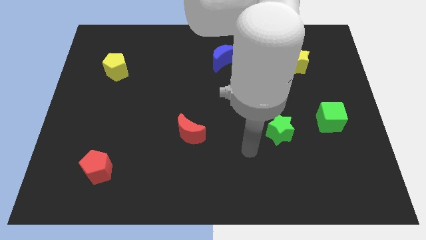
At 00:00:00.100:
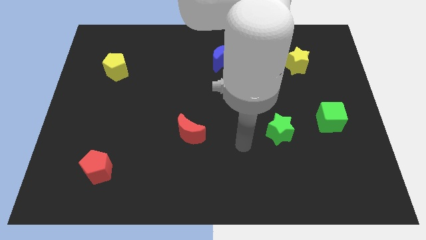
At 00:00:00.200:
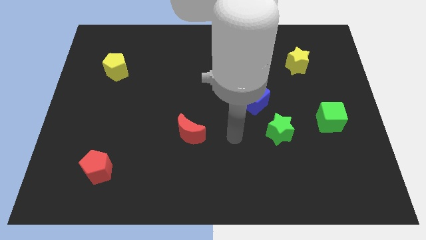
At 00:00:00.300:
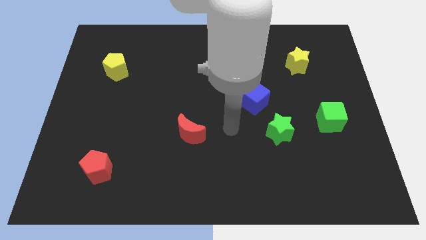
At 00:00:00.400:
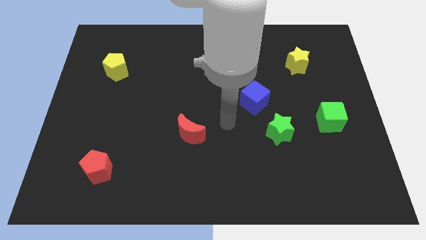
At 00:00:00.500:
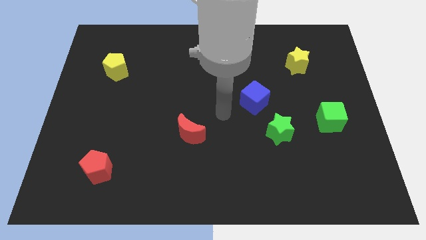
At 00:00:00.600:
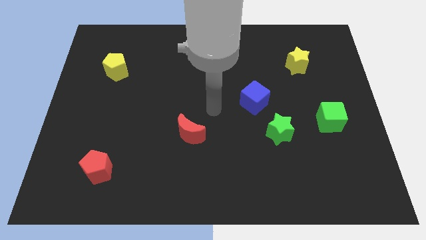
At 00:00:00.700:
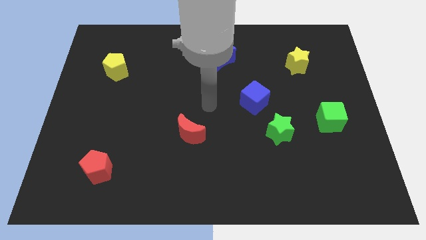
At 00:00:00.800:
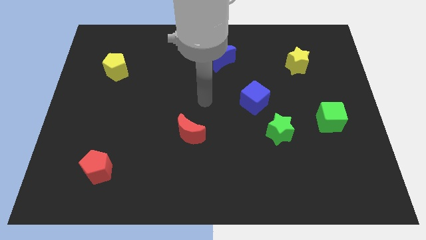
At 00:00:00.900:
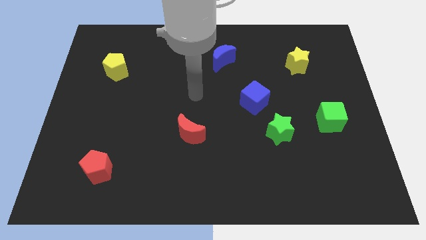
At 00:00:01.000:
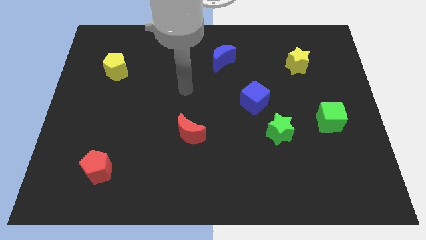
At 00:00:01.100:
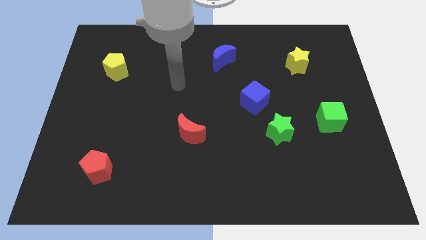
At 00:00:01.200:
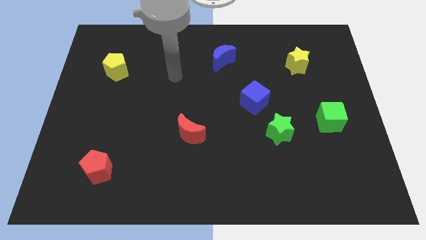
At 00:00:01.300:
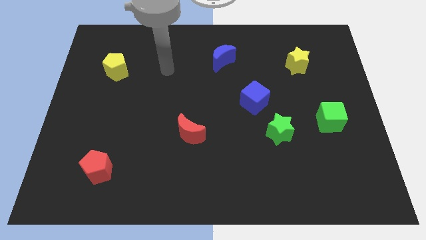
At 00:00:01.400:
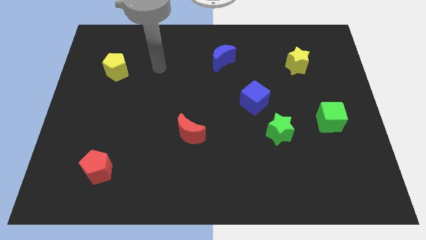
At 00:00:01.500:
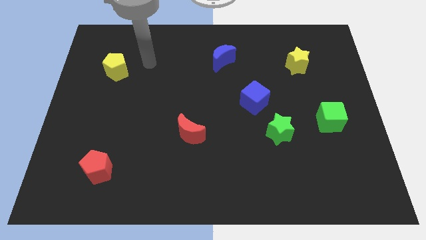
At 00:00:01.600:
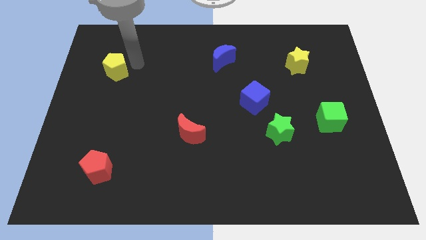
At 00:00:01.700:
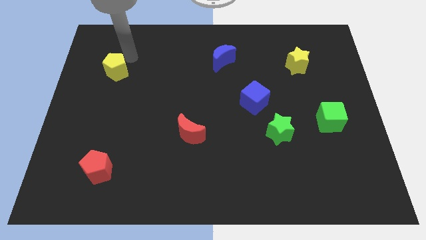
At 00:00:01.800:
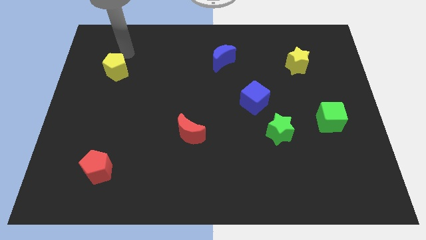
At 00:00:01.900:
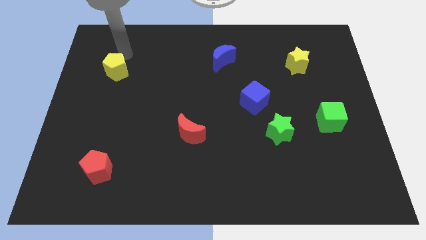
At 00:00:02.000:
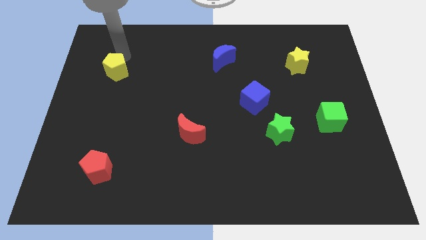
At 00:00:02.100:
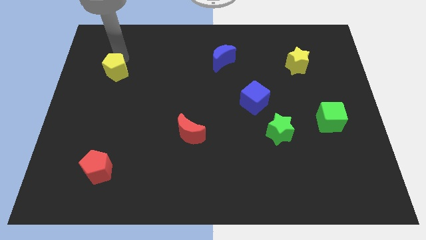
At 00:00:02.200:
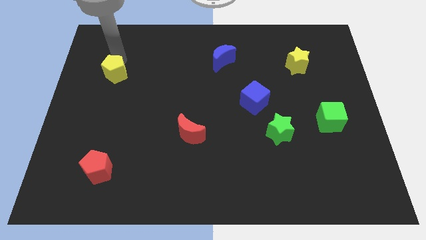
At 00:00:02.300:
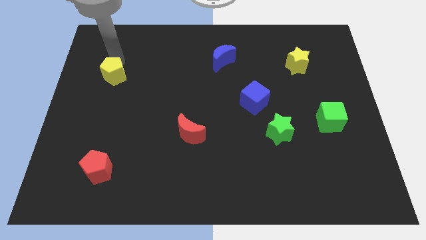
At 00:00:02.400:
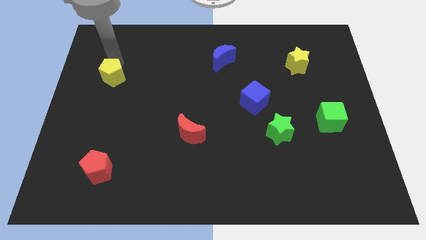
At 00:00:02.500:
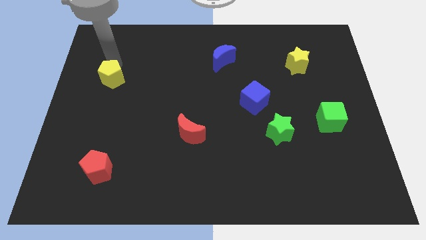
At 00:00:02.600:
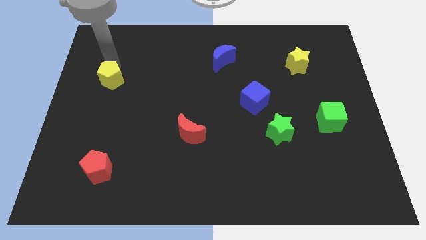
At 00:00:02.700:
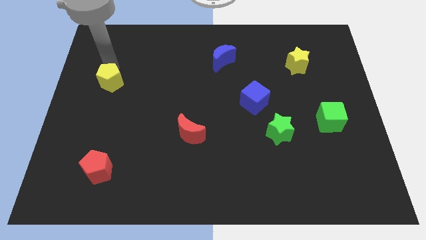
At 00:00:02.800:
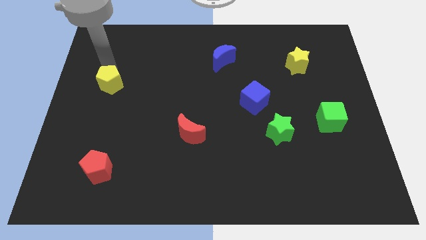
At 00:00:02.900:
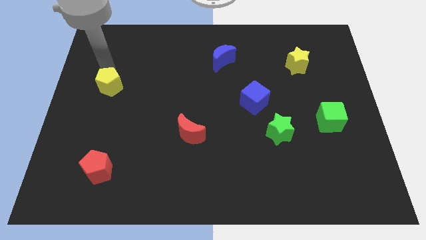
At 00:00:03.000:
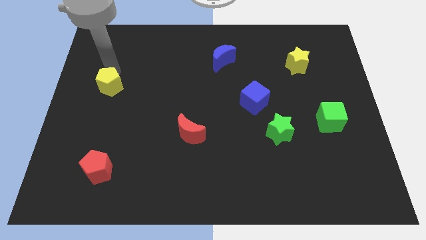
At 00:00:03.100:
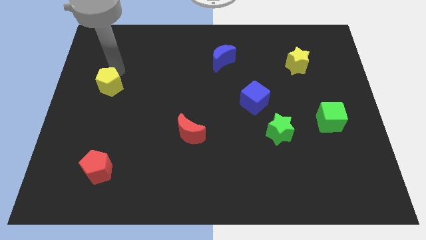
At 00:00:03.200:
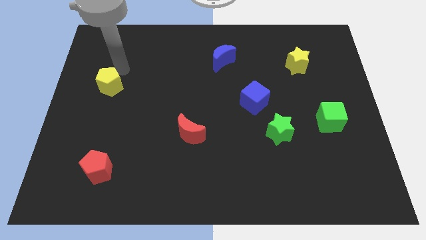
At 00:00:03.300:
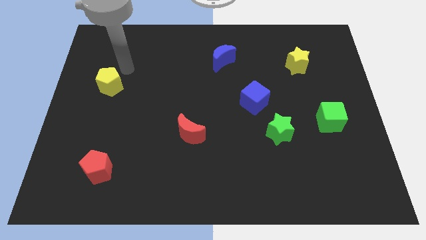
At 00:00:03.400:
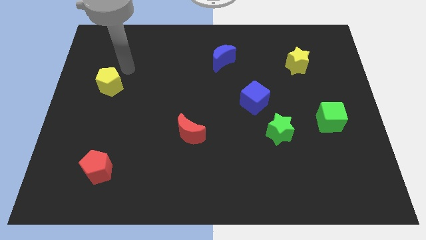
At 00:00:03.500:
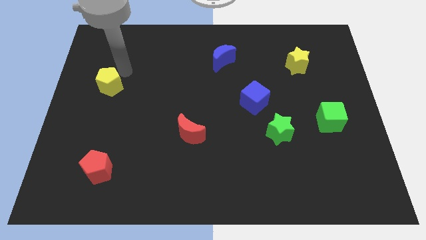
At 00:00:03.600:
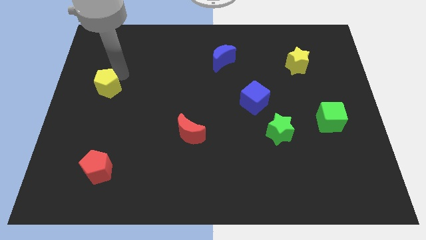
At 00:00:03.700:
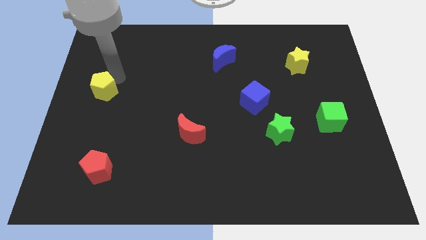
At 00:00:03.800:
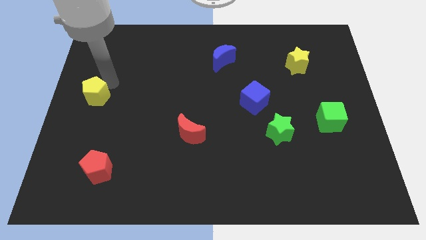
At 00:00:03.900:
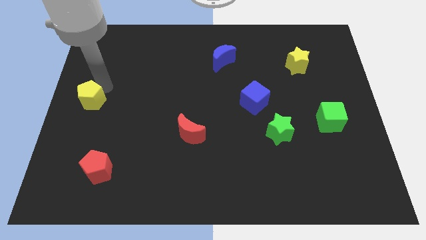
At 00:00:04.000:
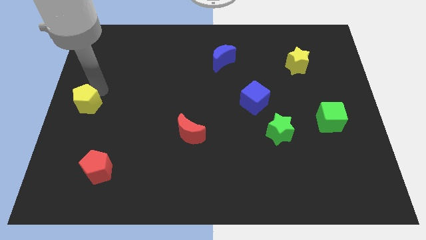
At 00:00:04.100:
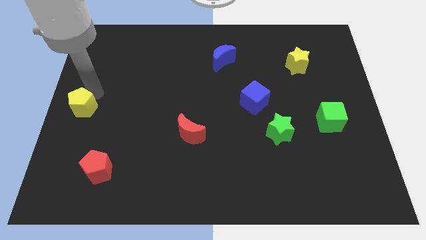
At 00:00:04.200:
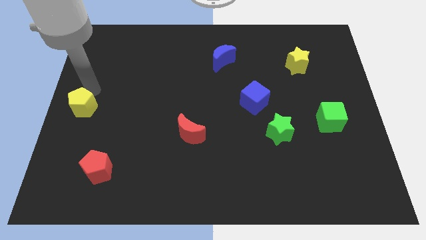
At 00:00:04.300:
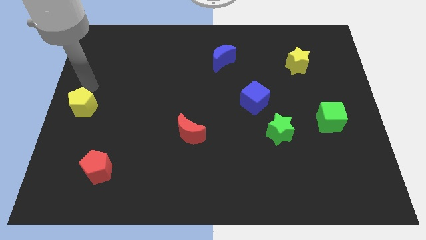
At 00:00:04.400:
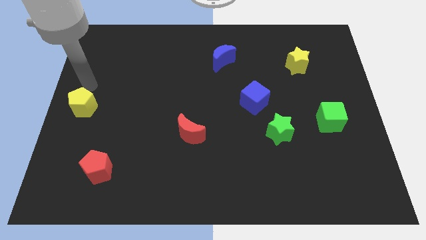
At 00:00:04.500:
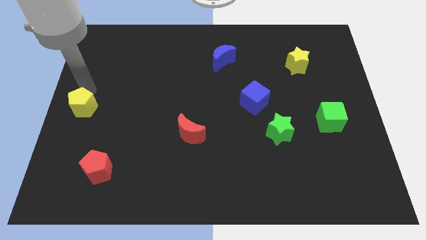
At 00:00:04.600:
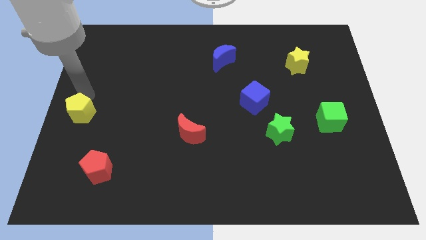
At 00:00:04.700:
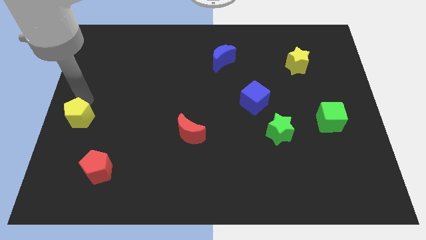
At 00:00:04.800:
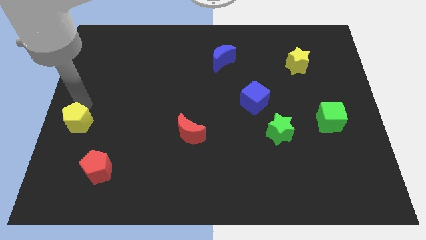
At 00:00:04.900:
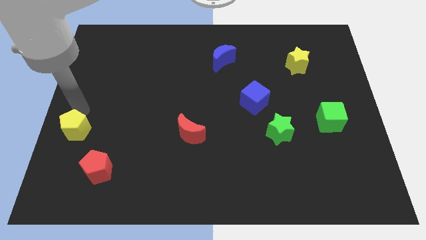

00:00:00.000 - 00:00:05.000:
push the yellow pentagon to the top left side of the red pentagon

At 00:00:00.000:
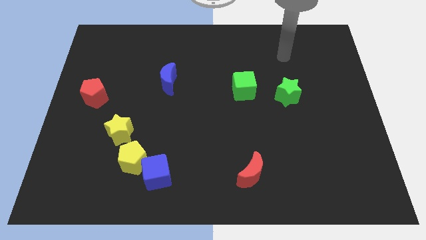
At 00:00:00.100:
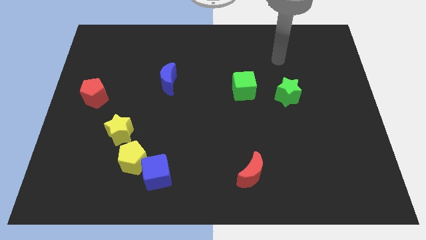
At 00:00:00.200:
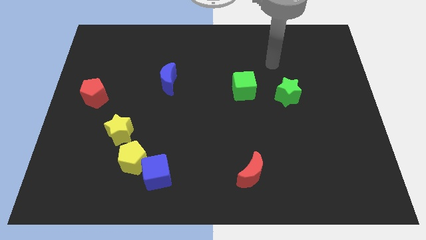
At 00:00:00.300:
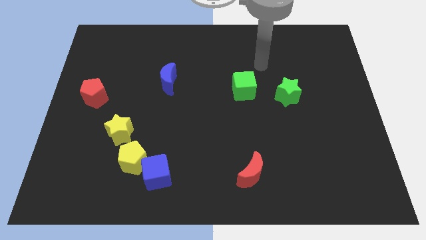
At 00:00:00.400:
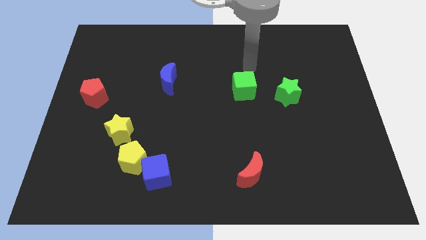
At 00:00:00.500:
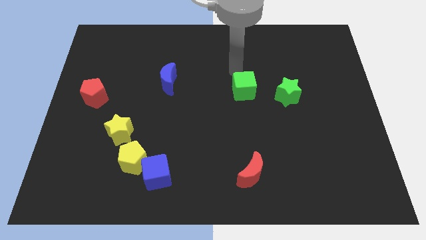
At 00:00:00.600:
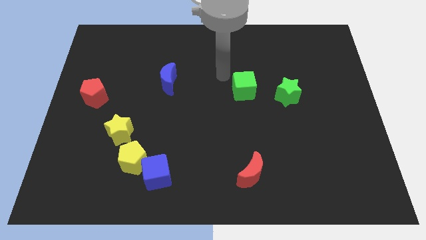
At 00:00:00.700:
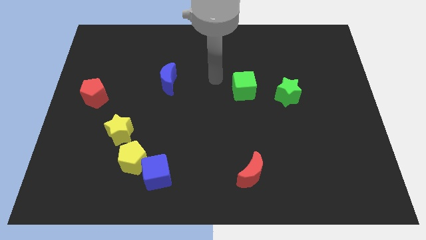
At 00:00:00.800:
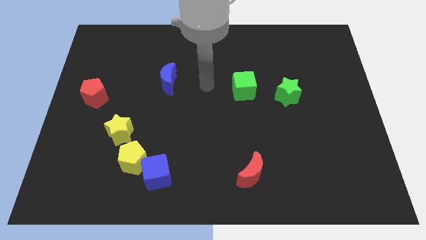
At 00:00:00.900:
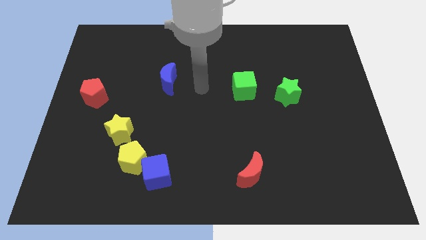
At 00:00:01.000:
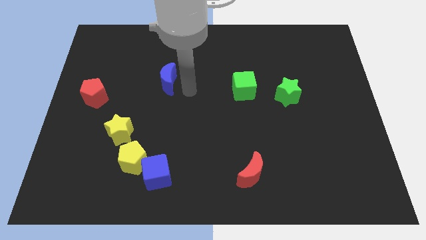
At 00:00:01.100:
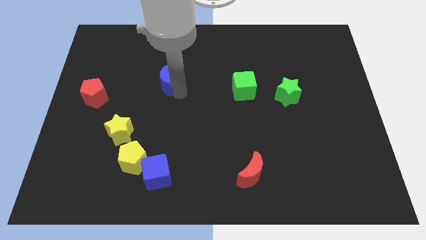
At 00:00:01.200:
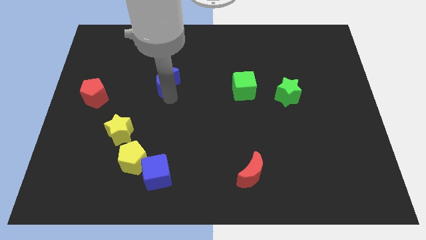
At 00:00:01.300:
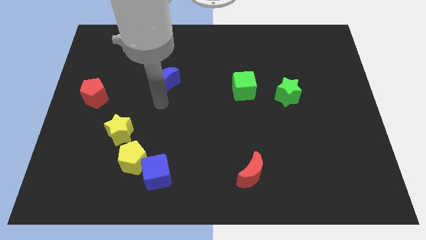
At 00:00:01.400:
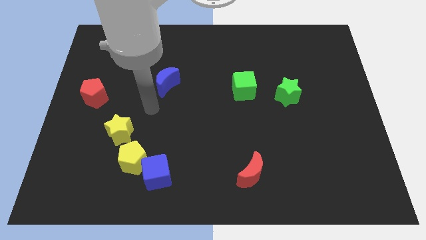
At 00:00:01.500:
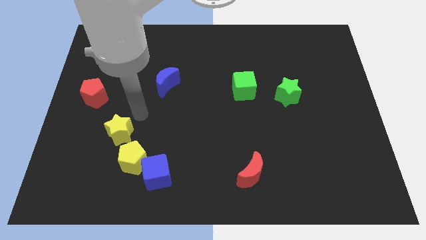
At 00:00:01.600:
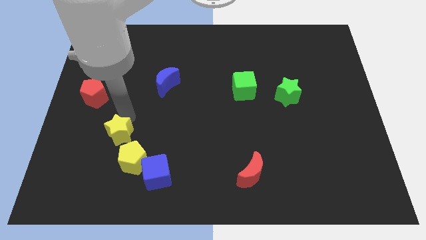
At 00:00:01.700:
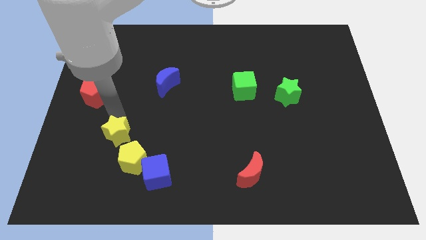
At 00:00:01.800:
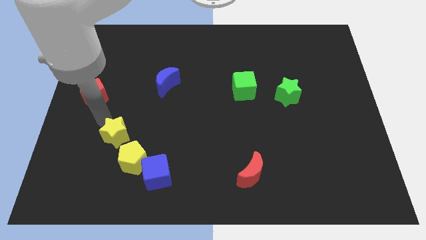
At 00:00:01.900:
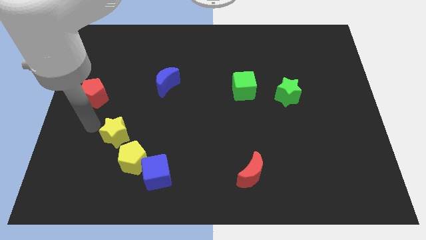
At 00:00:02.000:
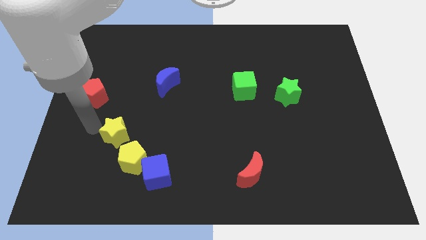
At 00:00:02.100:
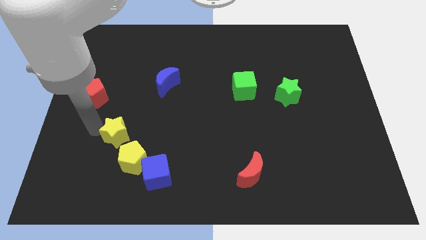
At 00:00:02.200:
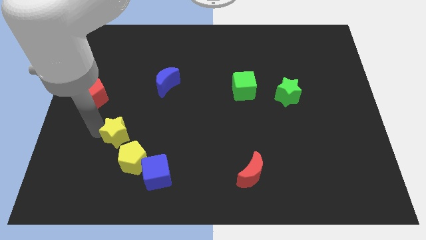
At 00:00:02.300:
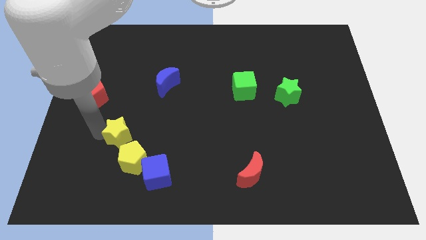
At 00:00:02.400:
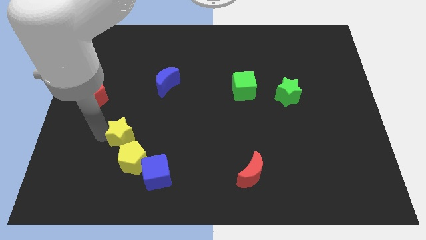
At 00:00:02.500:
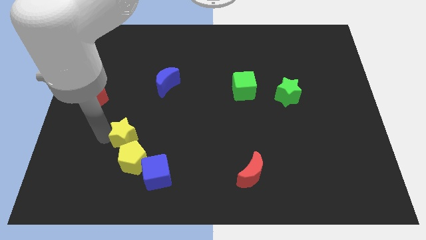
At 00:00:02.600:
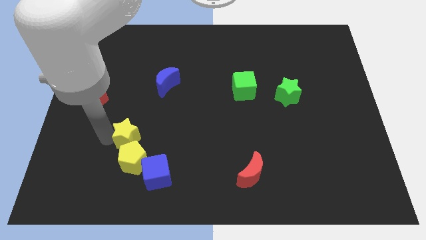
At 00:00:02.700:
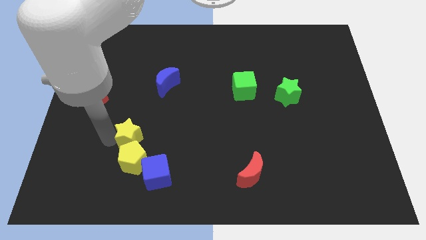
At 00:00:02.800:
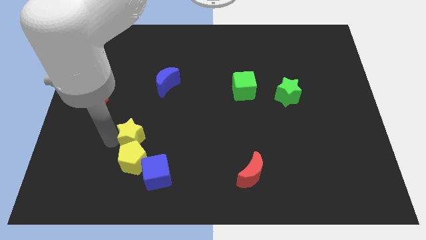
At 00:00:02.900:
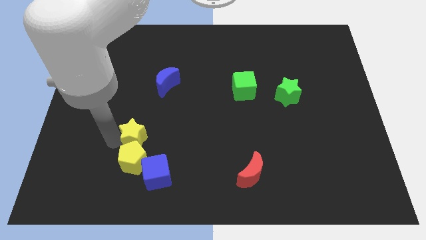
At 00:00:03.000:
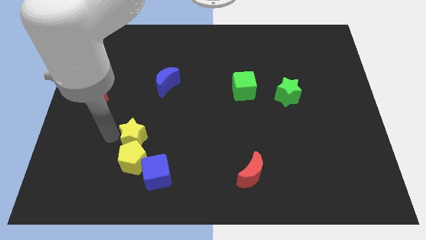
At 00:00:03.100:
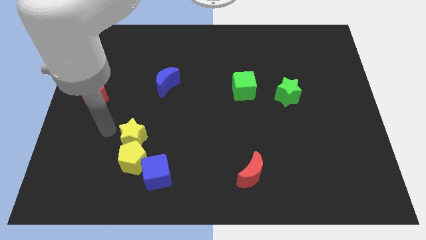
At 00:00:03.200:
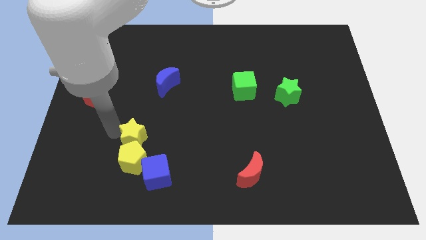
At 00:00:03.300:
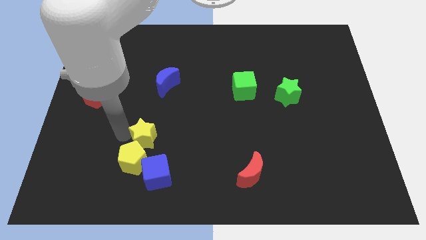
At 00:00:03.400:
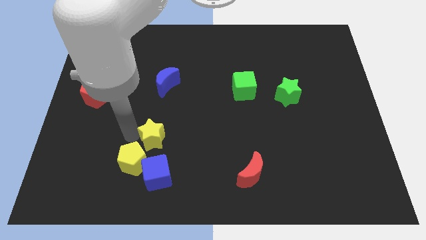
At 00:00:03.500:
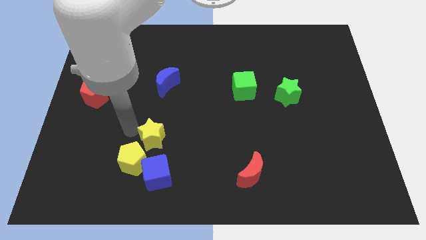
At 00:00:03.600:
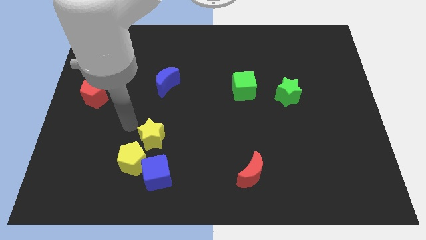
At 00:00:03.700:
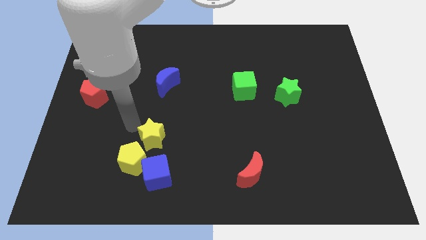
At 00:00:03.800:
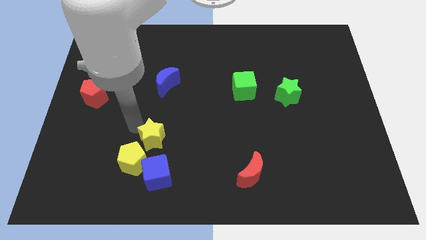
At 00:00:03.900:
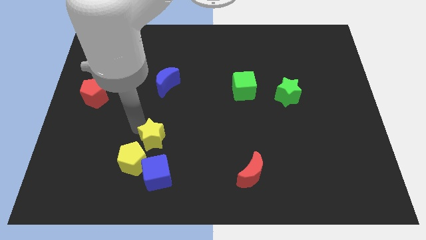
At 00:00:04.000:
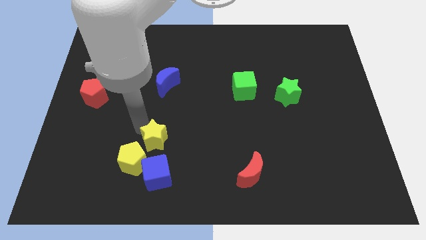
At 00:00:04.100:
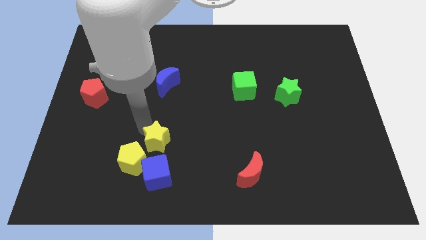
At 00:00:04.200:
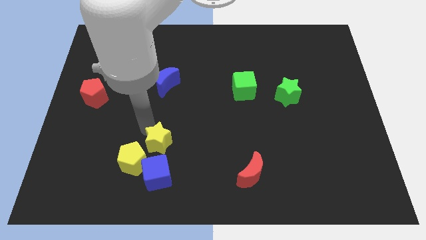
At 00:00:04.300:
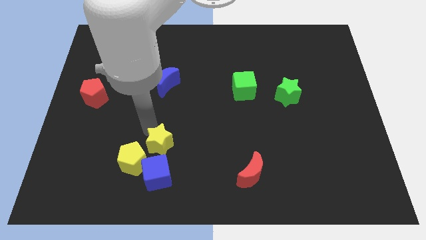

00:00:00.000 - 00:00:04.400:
slide the yellow star just right of the yellow pentagon
